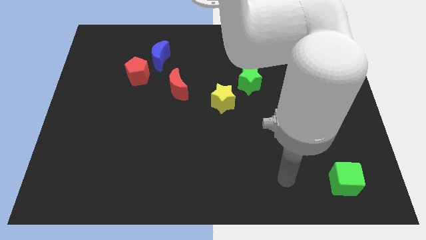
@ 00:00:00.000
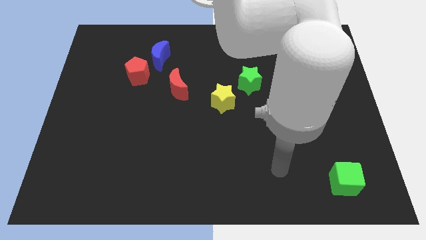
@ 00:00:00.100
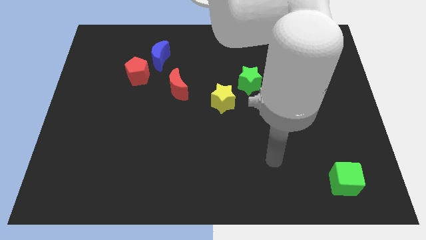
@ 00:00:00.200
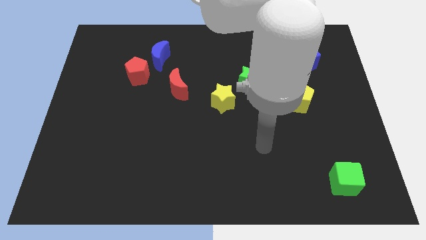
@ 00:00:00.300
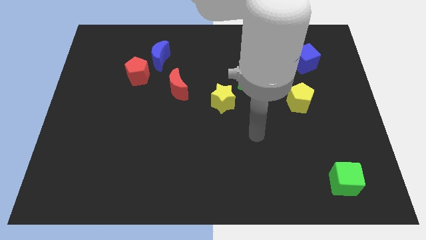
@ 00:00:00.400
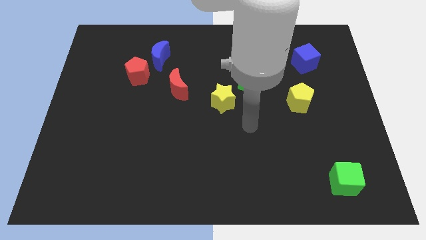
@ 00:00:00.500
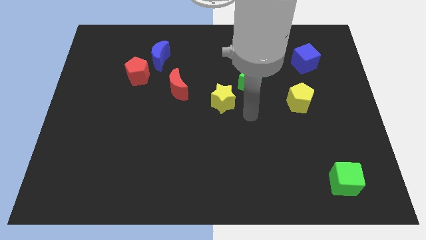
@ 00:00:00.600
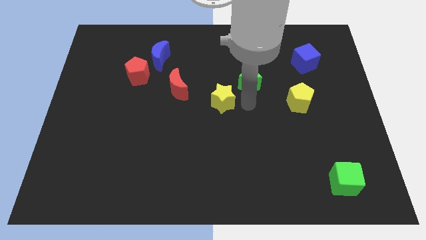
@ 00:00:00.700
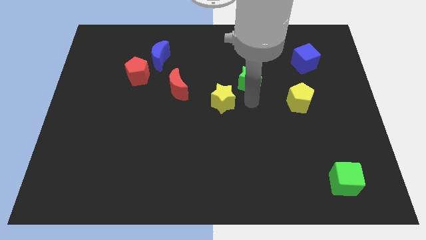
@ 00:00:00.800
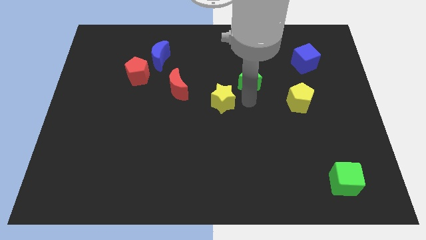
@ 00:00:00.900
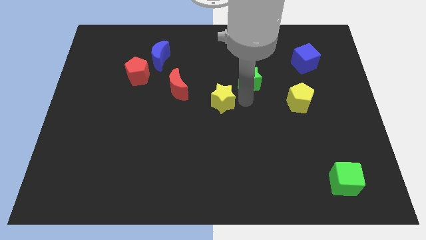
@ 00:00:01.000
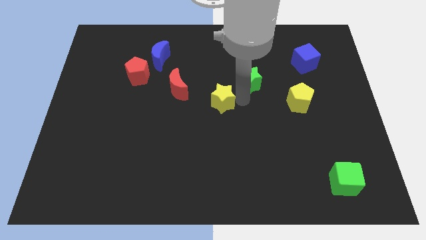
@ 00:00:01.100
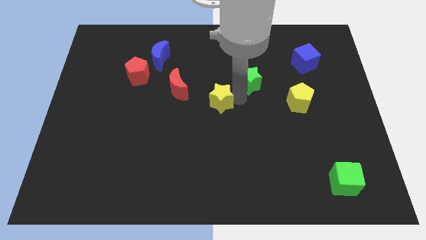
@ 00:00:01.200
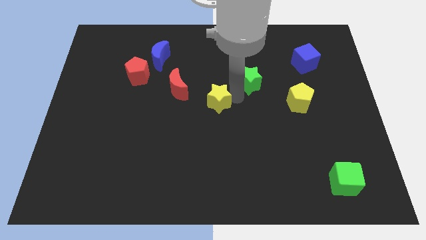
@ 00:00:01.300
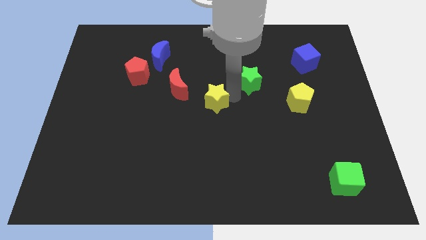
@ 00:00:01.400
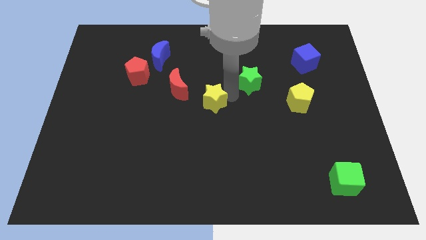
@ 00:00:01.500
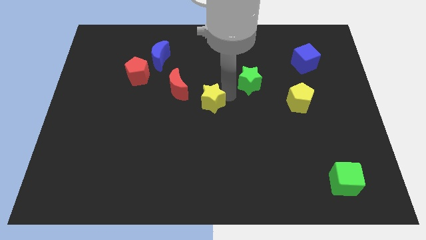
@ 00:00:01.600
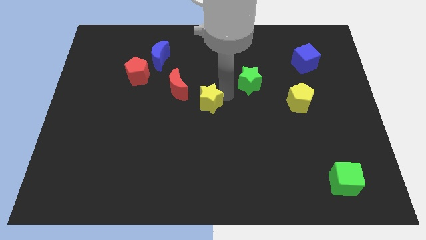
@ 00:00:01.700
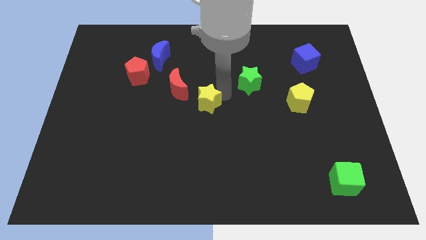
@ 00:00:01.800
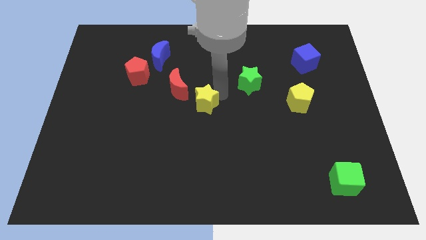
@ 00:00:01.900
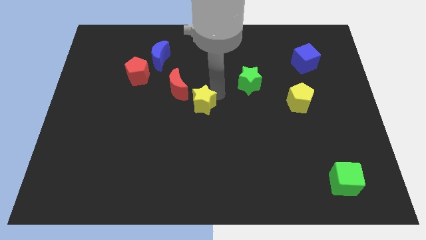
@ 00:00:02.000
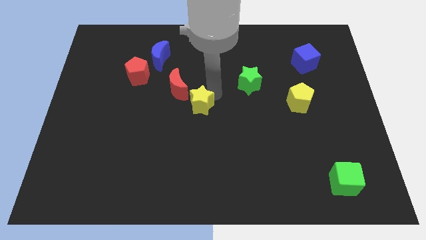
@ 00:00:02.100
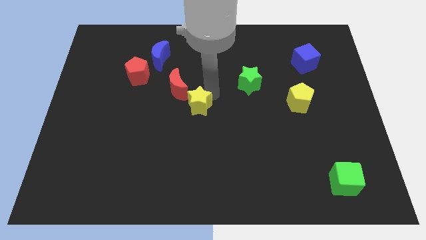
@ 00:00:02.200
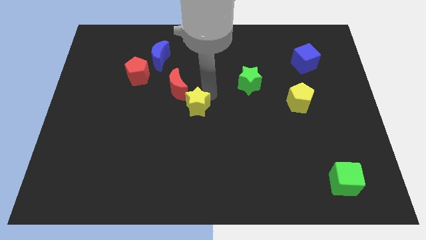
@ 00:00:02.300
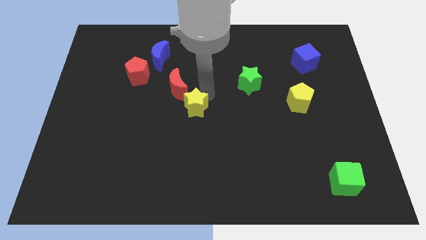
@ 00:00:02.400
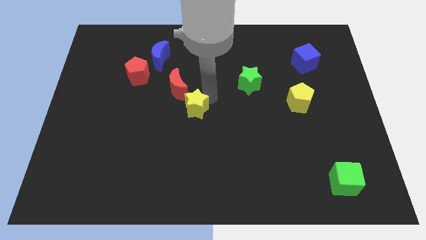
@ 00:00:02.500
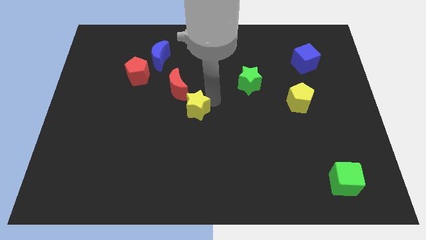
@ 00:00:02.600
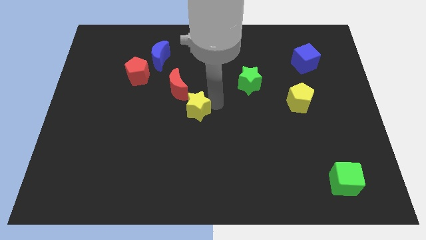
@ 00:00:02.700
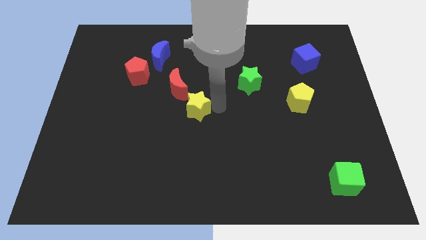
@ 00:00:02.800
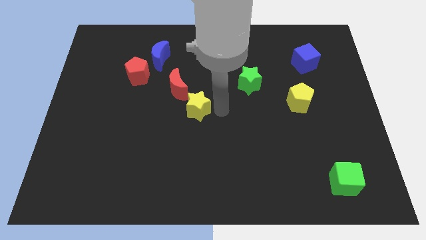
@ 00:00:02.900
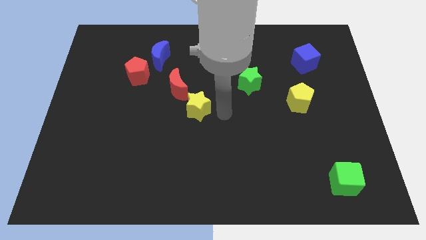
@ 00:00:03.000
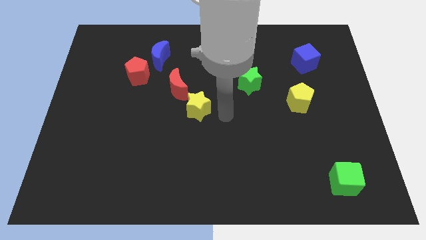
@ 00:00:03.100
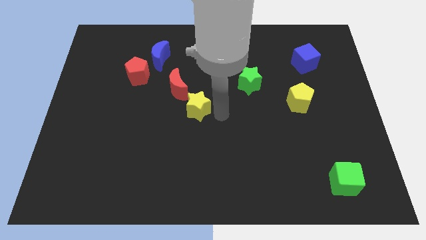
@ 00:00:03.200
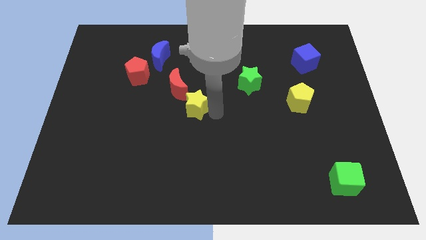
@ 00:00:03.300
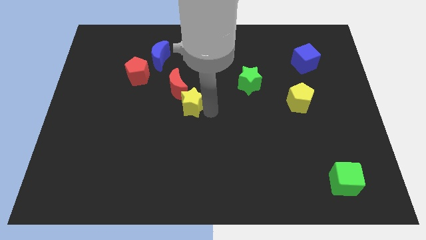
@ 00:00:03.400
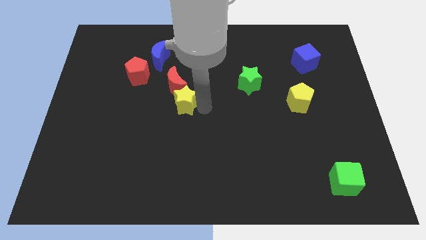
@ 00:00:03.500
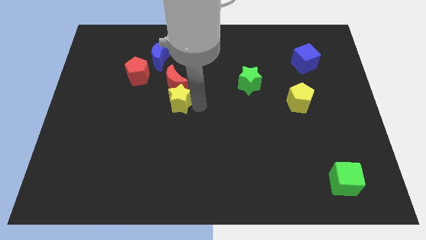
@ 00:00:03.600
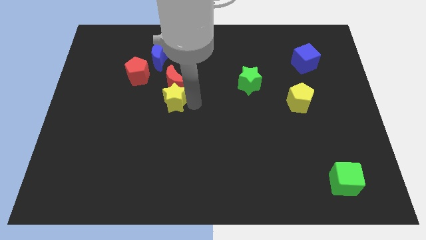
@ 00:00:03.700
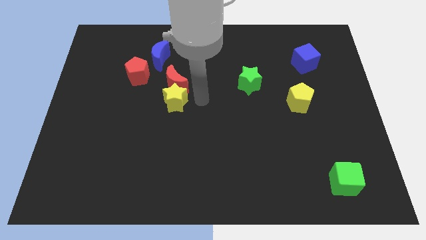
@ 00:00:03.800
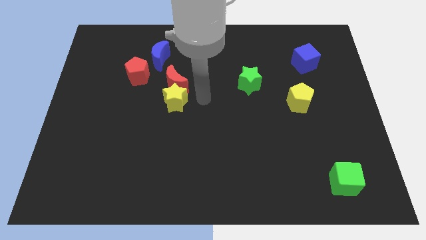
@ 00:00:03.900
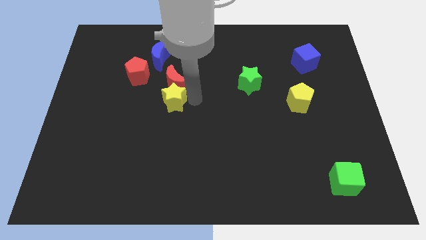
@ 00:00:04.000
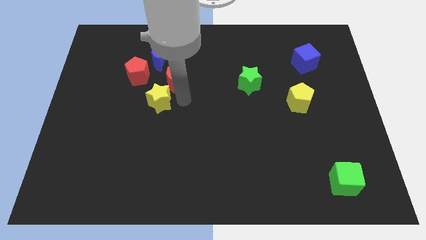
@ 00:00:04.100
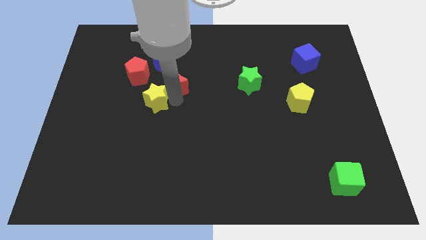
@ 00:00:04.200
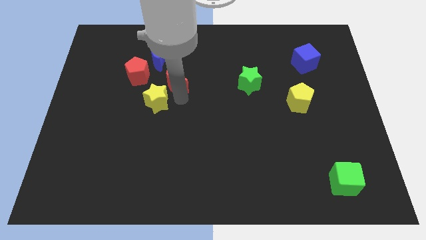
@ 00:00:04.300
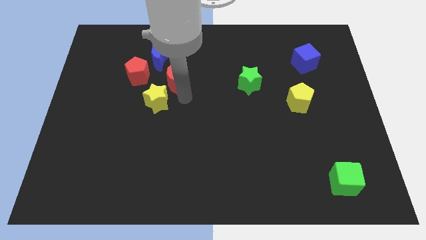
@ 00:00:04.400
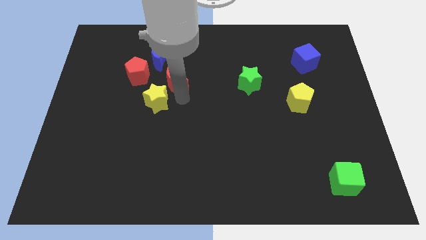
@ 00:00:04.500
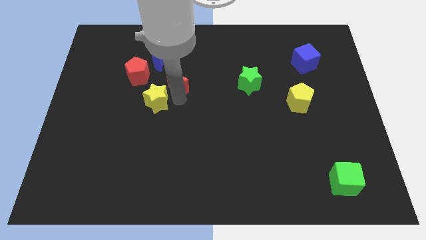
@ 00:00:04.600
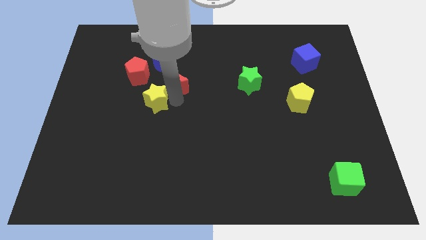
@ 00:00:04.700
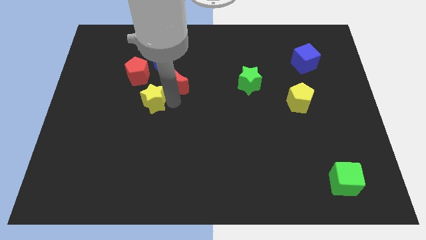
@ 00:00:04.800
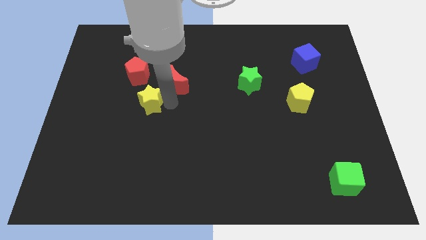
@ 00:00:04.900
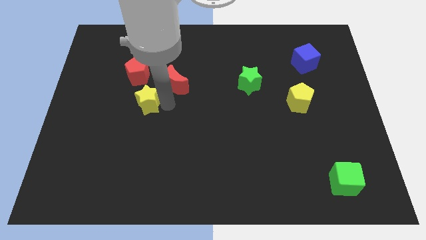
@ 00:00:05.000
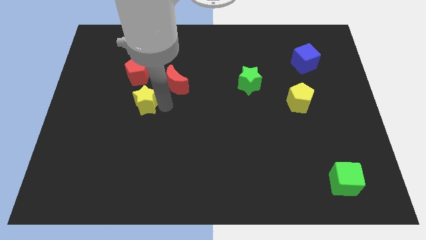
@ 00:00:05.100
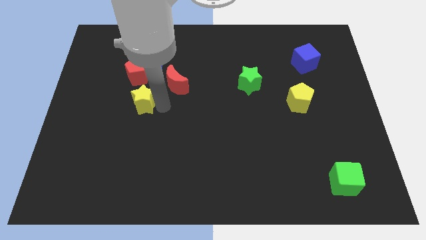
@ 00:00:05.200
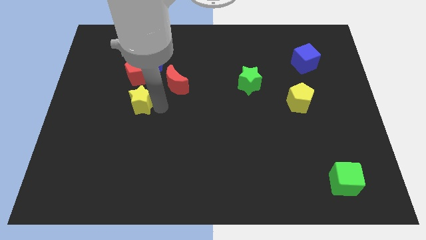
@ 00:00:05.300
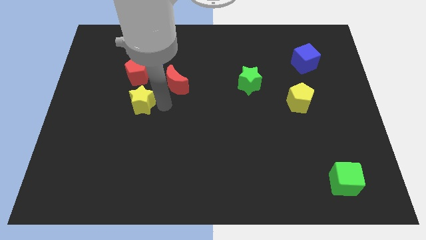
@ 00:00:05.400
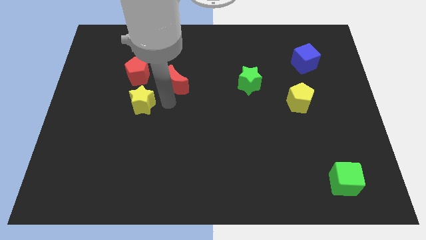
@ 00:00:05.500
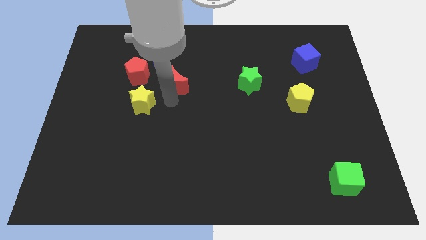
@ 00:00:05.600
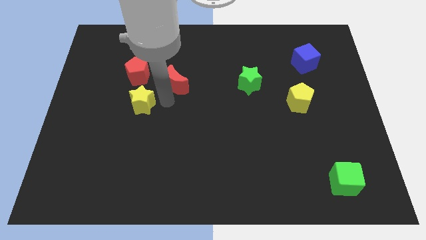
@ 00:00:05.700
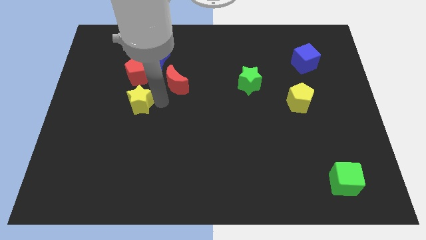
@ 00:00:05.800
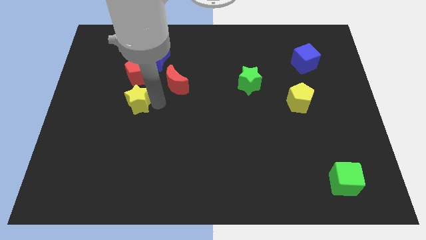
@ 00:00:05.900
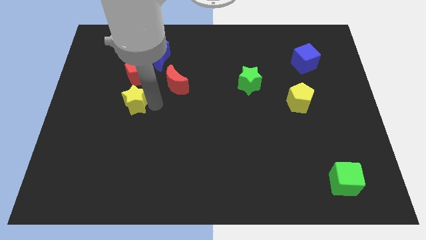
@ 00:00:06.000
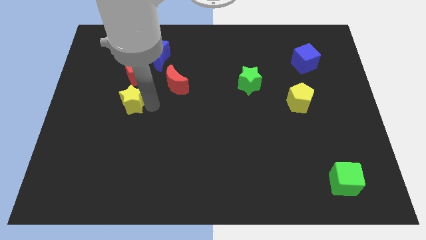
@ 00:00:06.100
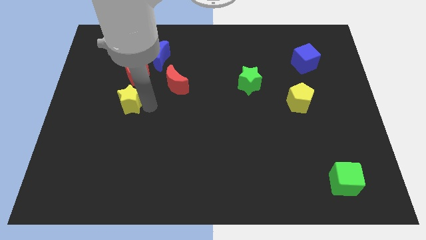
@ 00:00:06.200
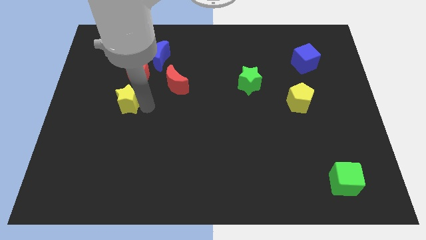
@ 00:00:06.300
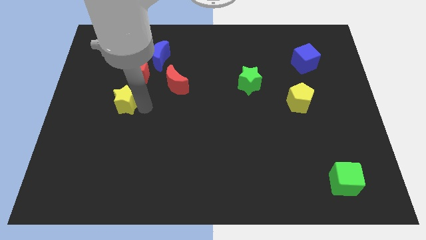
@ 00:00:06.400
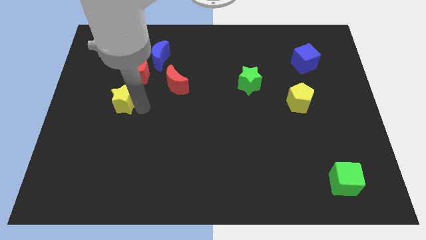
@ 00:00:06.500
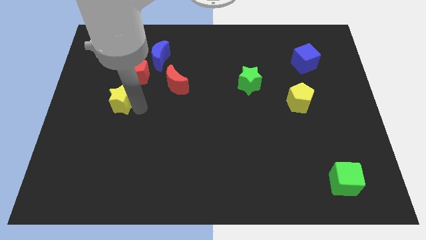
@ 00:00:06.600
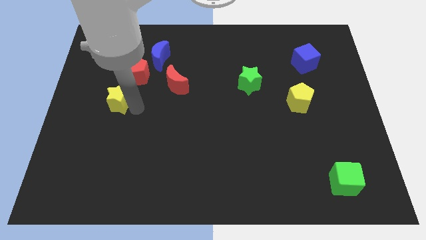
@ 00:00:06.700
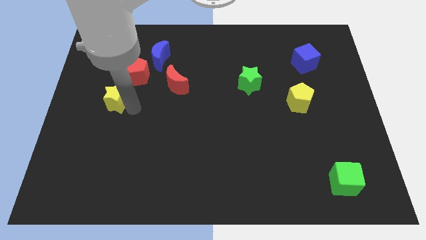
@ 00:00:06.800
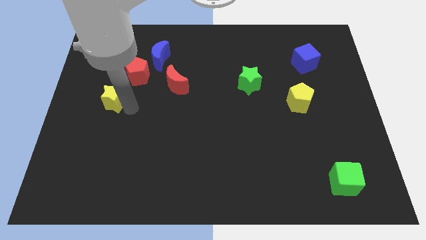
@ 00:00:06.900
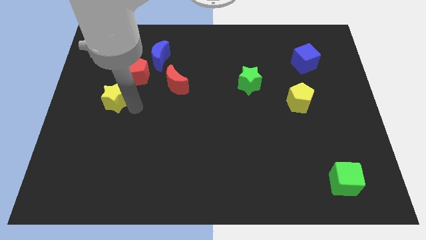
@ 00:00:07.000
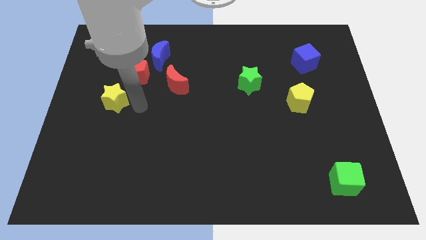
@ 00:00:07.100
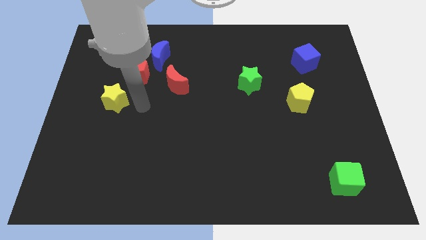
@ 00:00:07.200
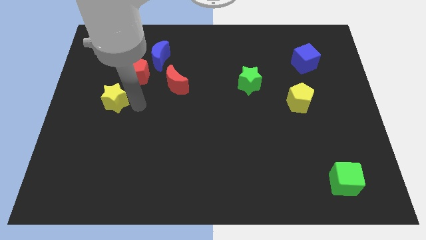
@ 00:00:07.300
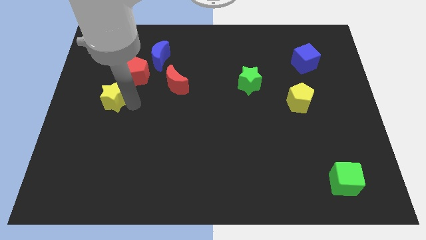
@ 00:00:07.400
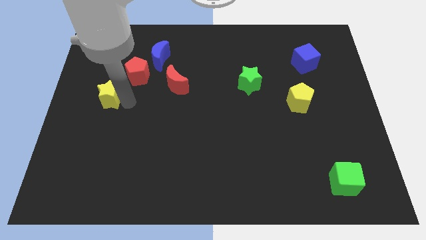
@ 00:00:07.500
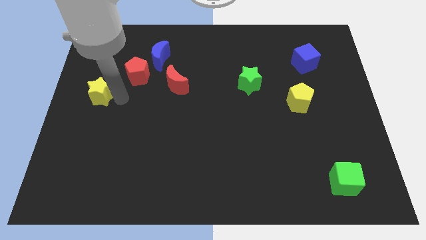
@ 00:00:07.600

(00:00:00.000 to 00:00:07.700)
move the yellow star to the center left
